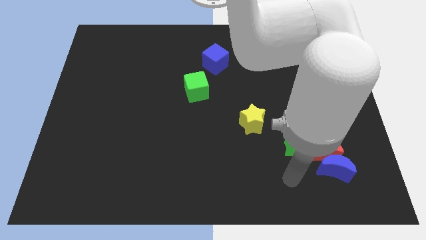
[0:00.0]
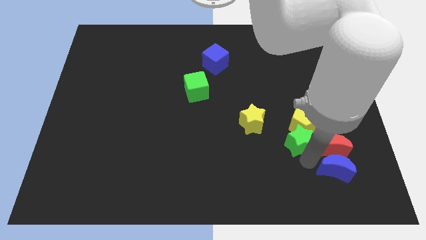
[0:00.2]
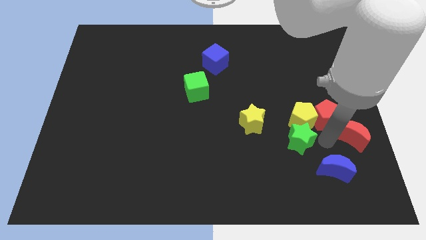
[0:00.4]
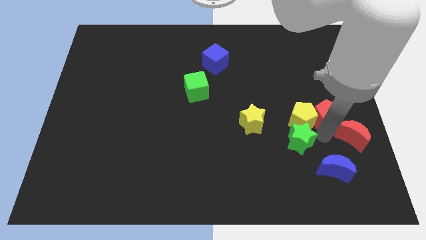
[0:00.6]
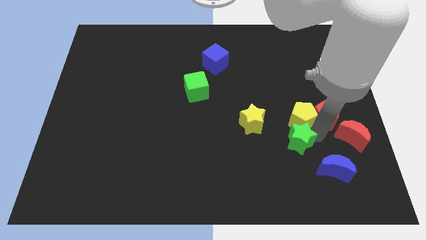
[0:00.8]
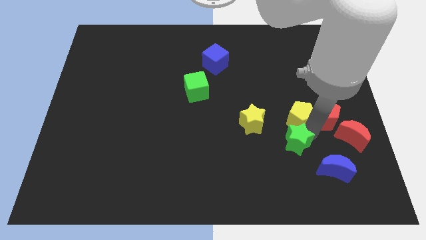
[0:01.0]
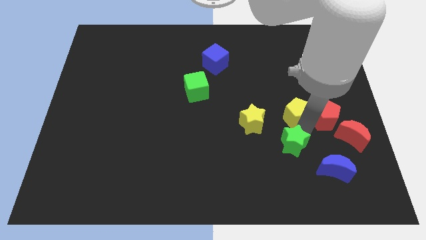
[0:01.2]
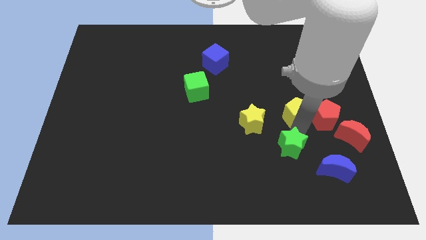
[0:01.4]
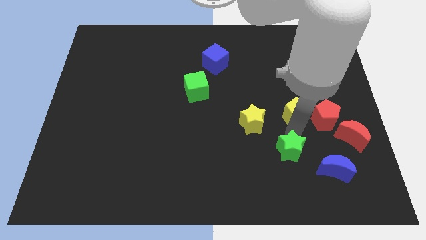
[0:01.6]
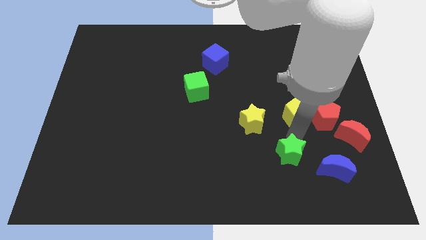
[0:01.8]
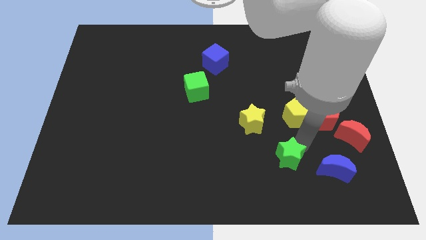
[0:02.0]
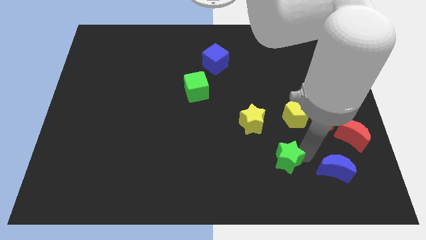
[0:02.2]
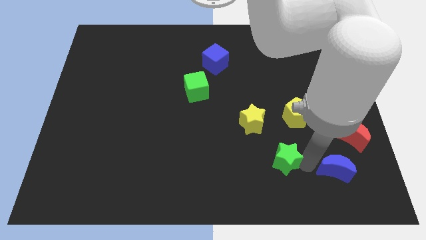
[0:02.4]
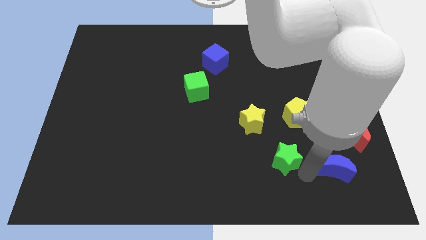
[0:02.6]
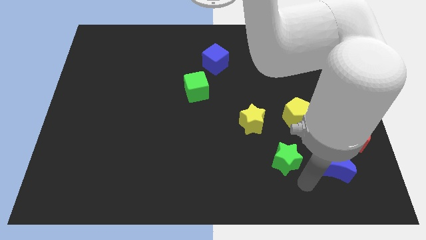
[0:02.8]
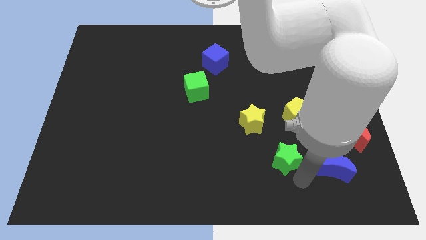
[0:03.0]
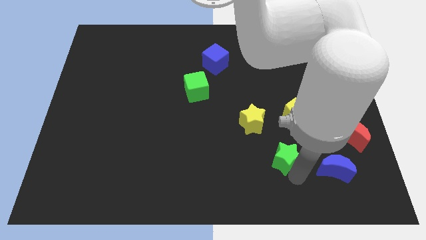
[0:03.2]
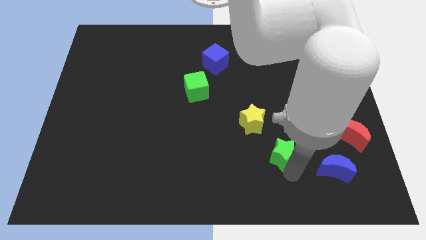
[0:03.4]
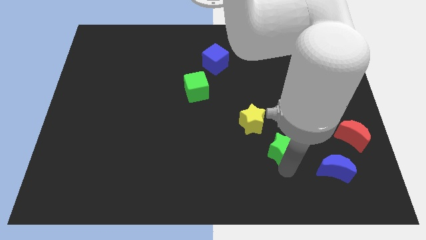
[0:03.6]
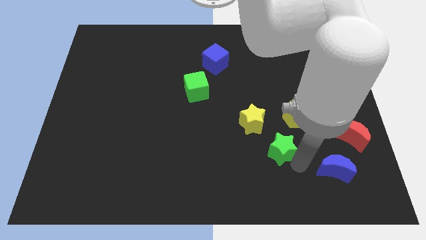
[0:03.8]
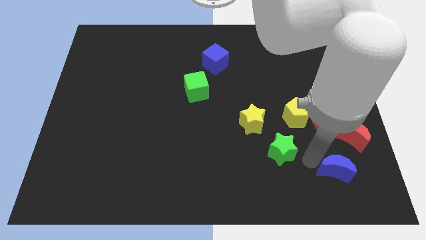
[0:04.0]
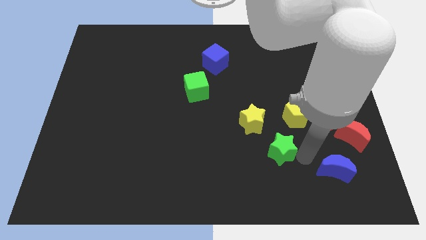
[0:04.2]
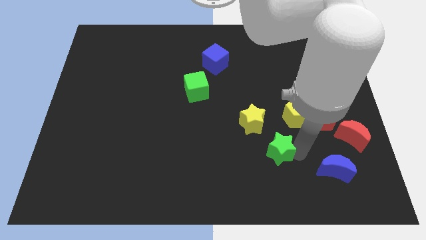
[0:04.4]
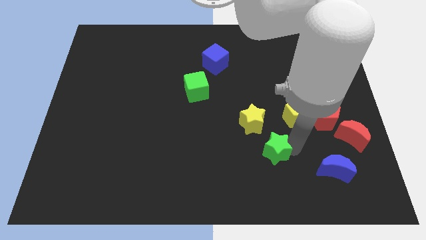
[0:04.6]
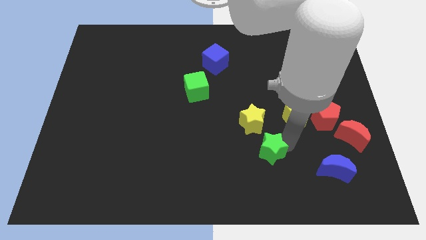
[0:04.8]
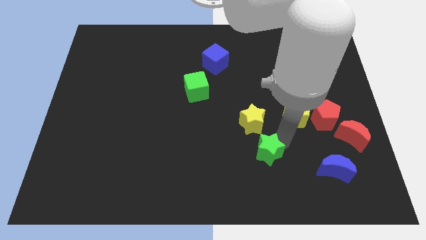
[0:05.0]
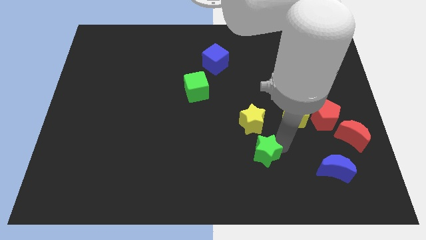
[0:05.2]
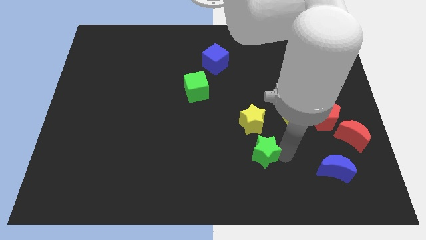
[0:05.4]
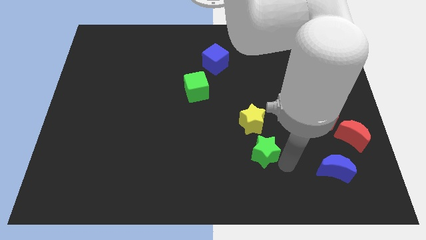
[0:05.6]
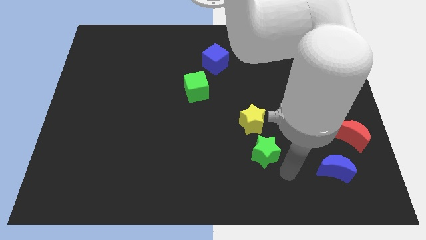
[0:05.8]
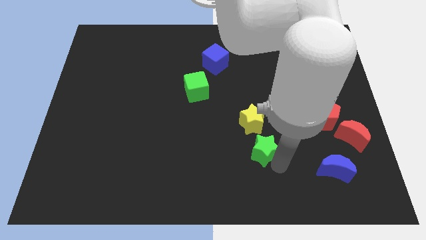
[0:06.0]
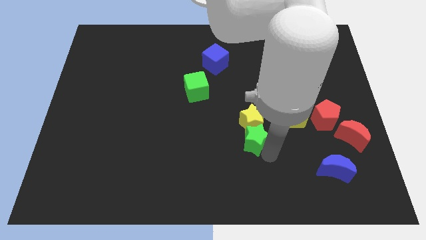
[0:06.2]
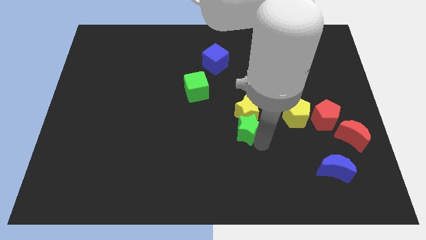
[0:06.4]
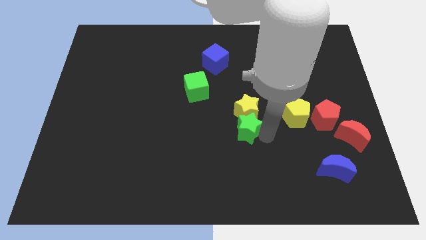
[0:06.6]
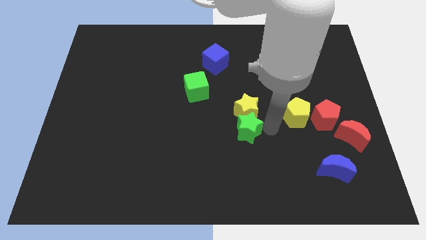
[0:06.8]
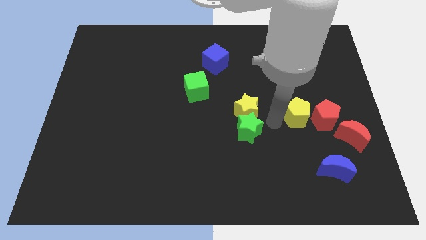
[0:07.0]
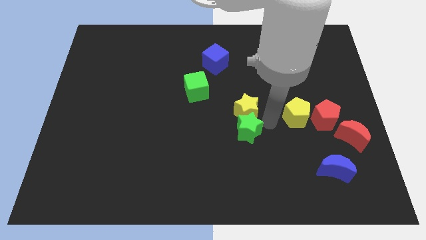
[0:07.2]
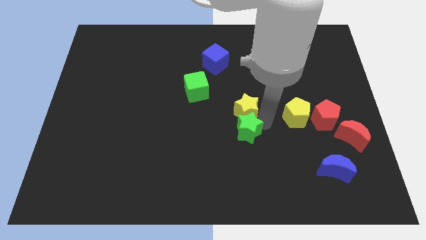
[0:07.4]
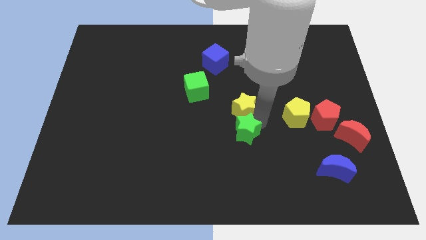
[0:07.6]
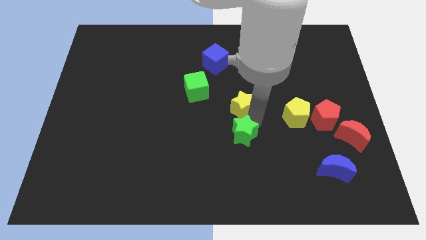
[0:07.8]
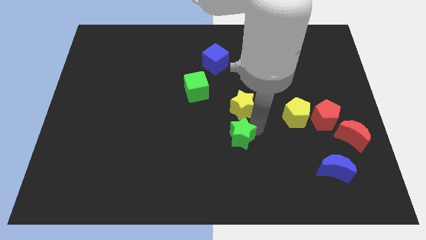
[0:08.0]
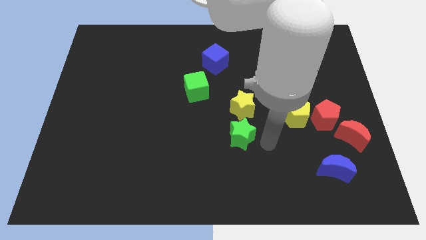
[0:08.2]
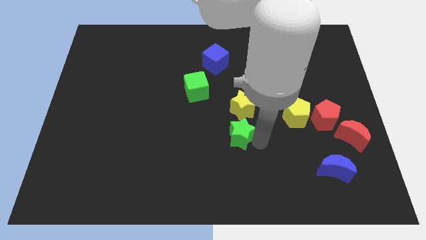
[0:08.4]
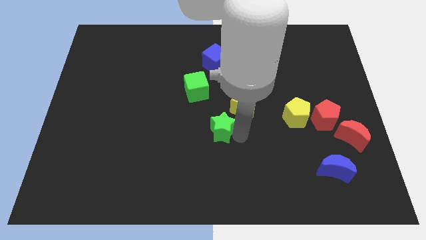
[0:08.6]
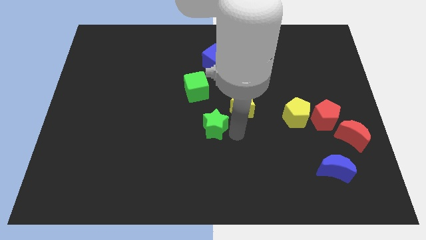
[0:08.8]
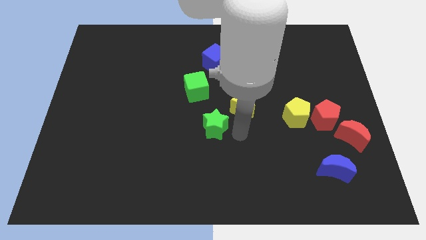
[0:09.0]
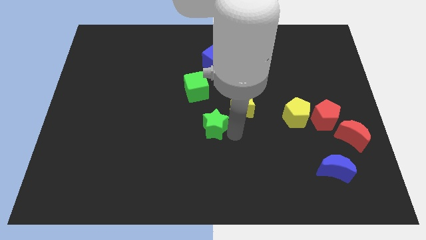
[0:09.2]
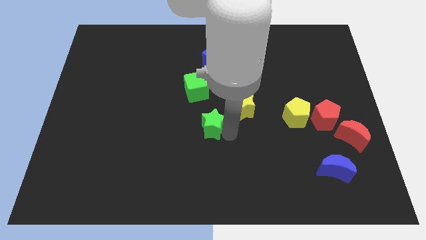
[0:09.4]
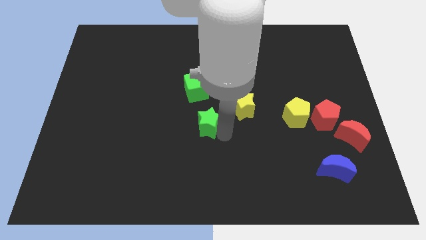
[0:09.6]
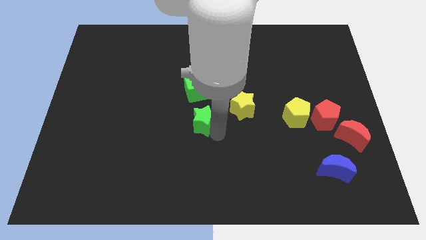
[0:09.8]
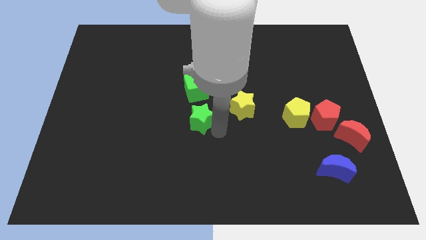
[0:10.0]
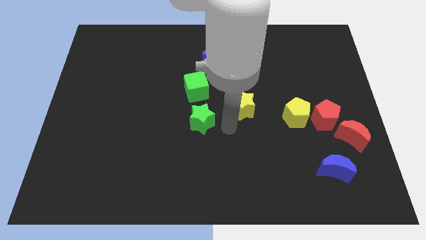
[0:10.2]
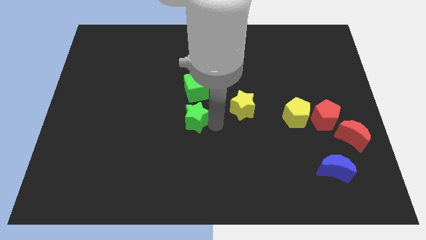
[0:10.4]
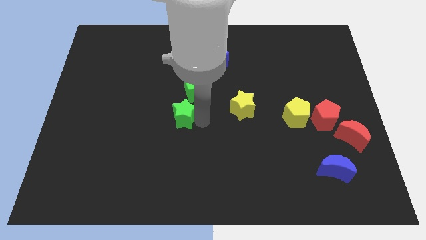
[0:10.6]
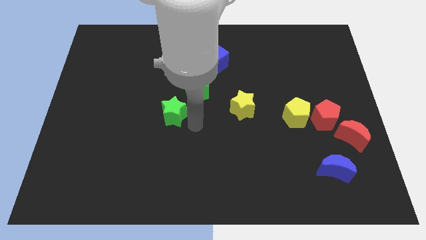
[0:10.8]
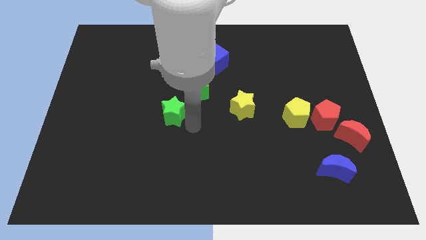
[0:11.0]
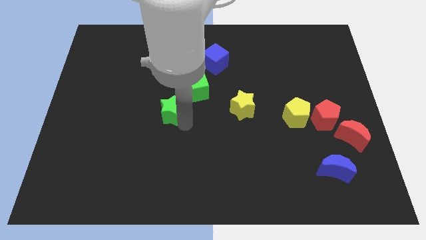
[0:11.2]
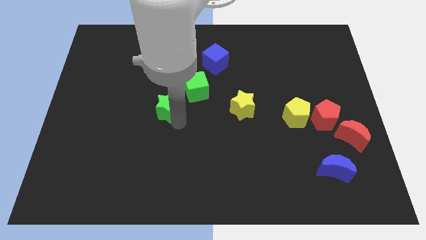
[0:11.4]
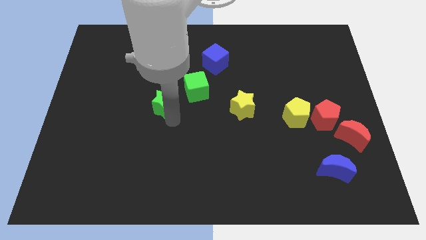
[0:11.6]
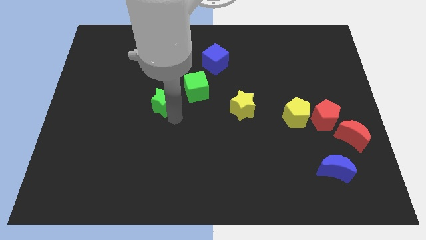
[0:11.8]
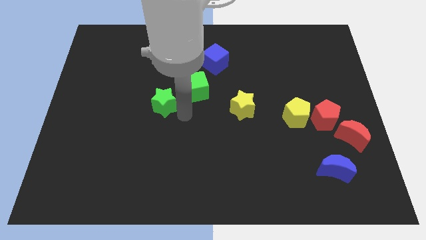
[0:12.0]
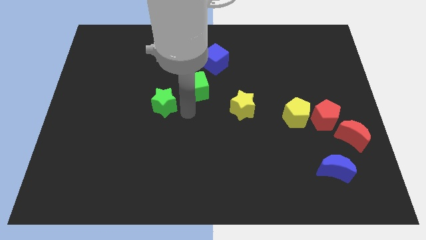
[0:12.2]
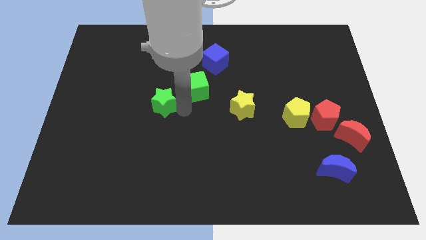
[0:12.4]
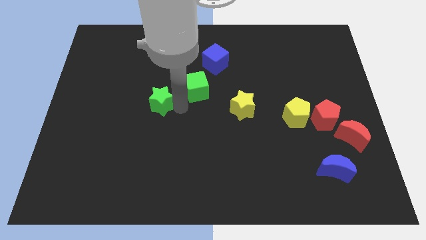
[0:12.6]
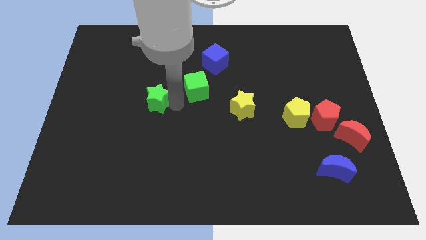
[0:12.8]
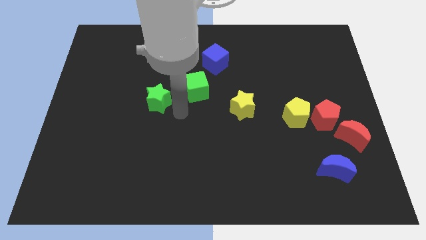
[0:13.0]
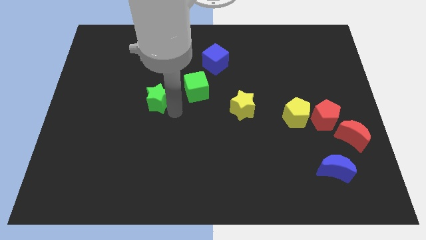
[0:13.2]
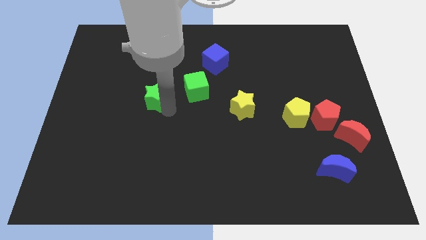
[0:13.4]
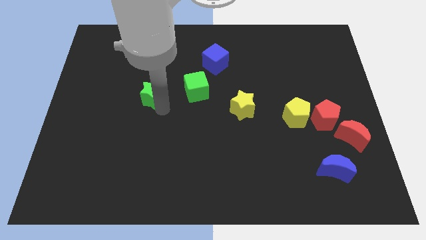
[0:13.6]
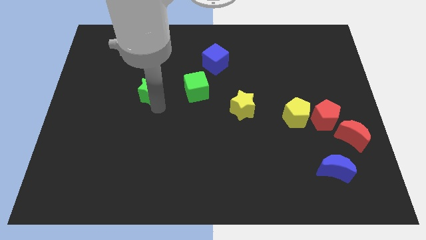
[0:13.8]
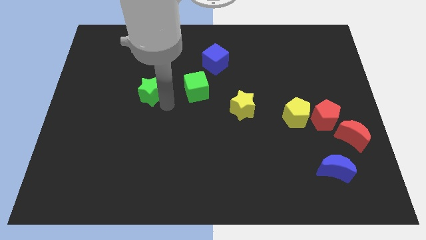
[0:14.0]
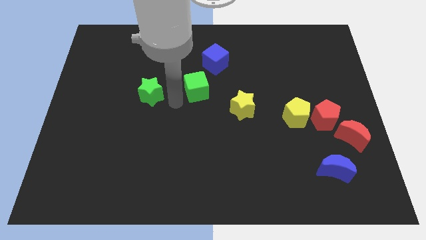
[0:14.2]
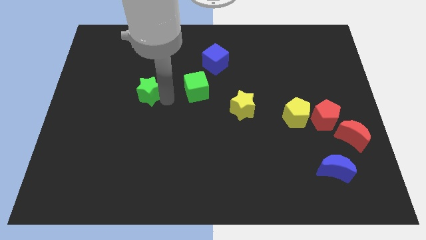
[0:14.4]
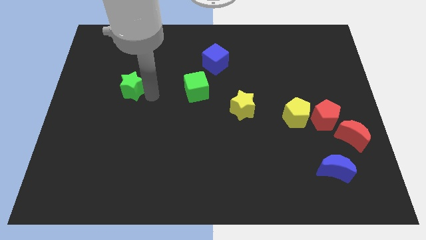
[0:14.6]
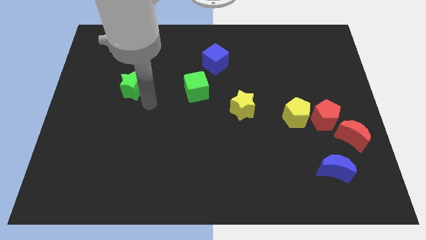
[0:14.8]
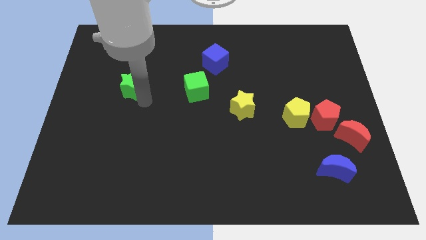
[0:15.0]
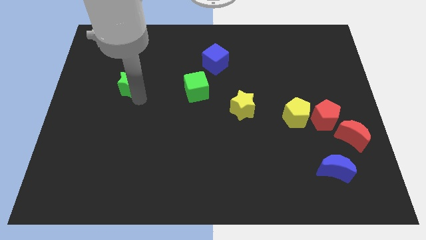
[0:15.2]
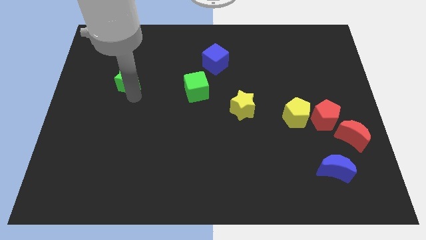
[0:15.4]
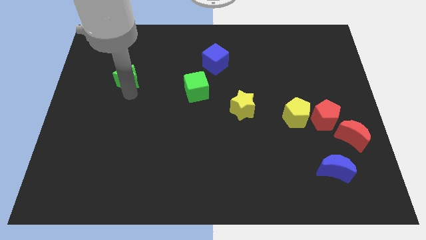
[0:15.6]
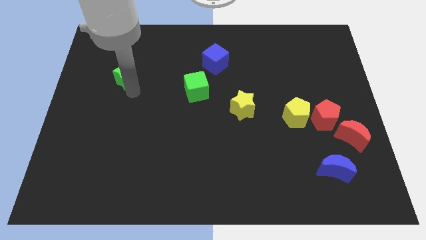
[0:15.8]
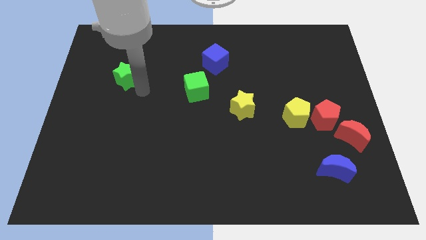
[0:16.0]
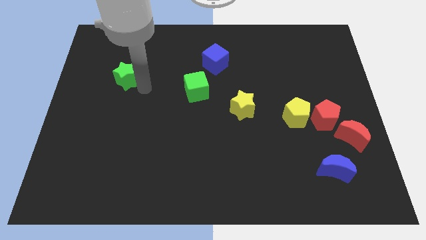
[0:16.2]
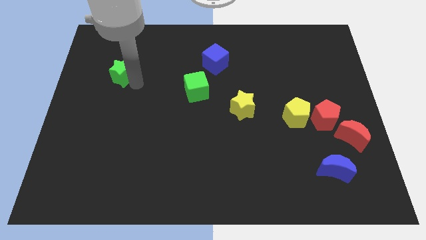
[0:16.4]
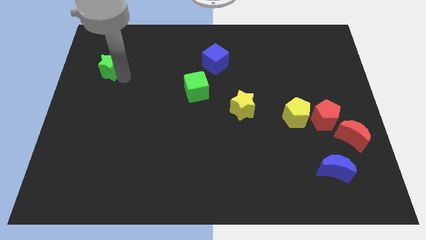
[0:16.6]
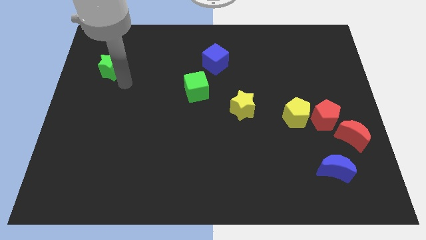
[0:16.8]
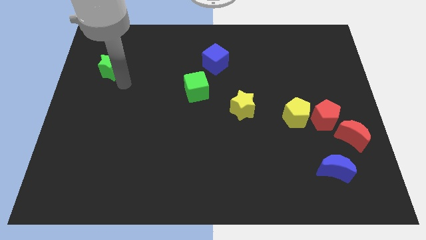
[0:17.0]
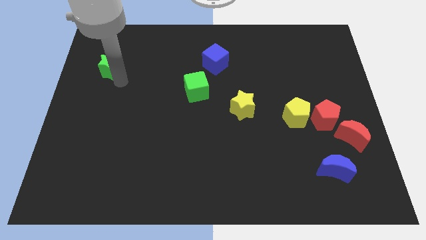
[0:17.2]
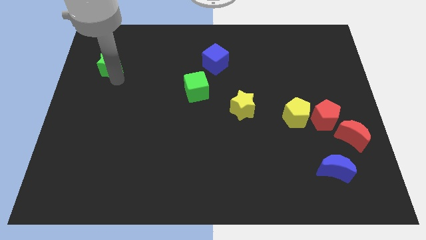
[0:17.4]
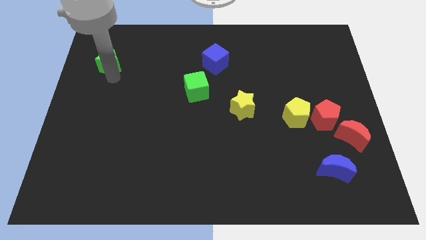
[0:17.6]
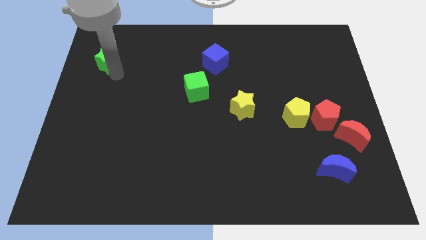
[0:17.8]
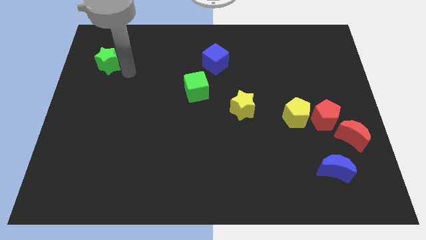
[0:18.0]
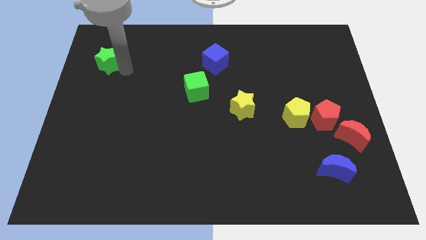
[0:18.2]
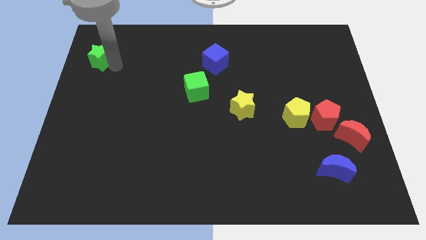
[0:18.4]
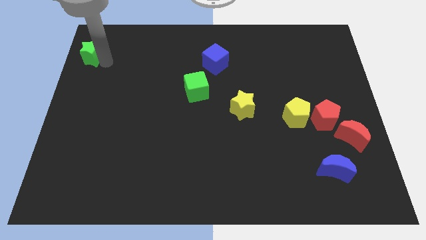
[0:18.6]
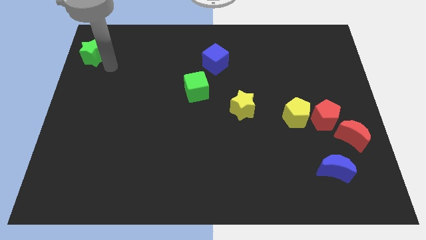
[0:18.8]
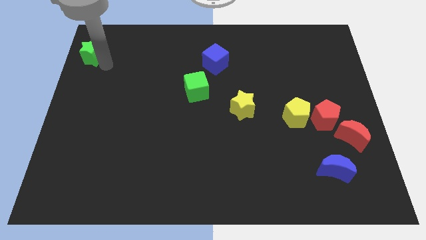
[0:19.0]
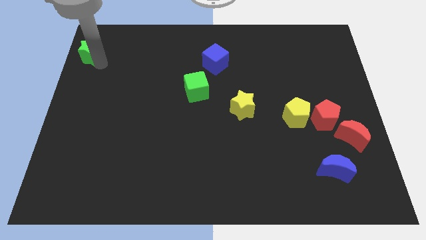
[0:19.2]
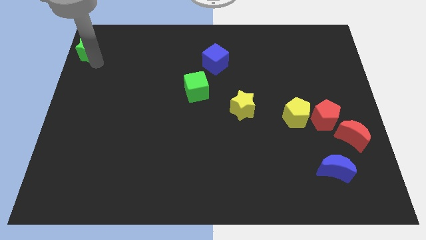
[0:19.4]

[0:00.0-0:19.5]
put the green star to the upper left corner
